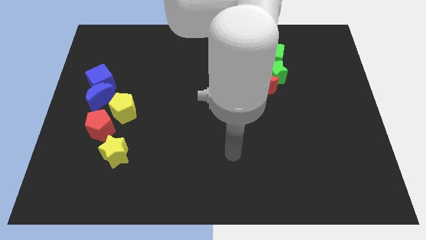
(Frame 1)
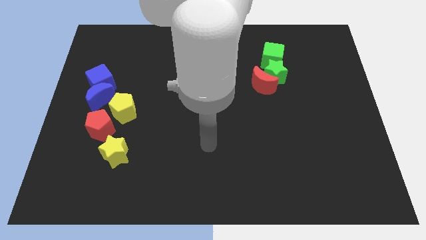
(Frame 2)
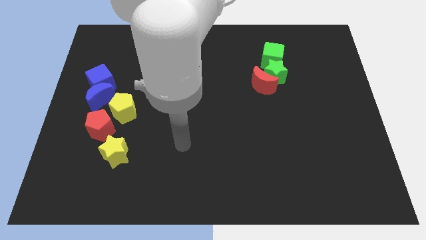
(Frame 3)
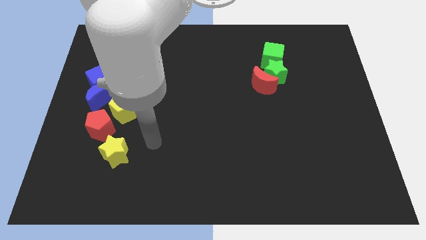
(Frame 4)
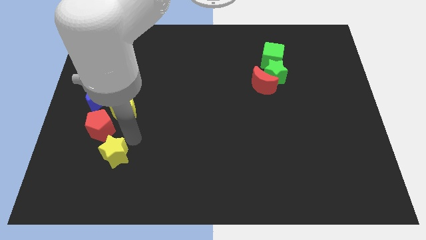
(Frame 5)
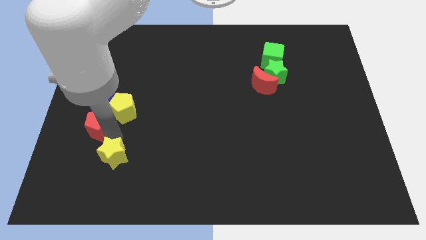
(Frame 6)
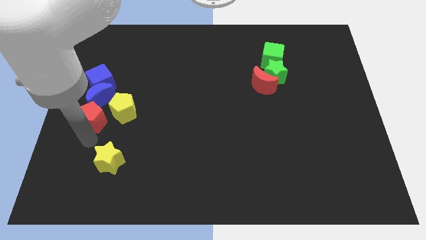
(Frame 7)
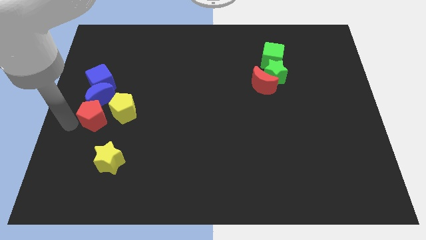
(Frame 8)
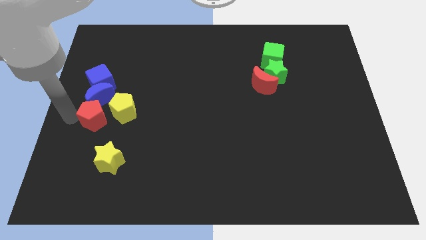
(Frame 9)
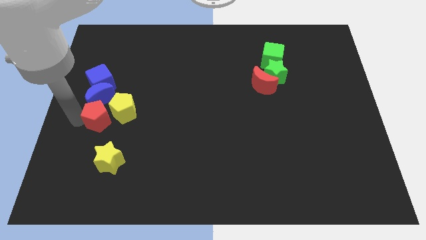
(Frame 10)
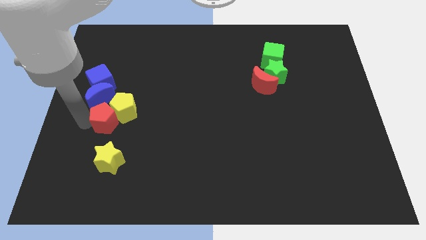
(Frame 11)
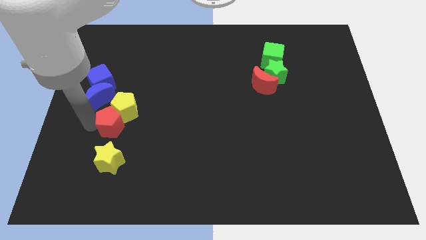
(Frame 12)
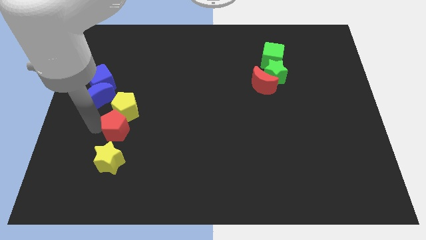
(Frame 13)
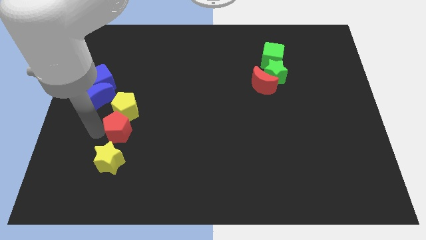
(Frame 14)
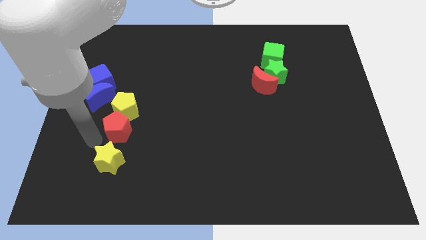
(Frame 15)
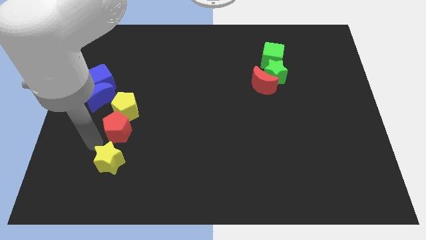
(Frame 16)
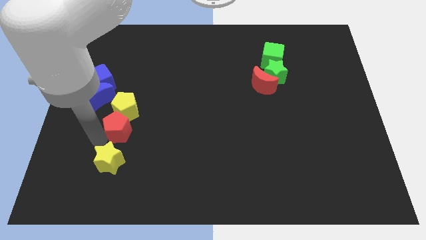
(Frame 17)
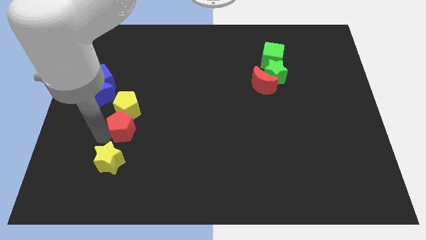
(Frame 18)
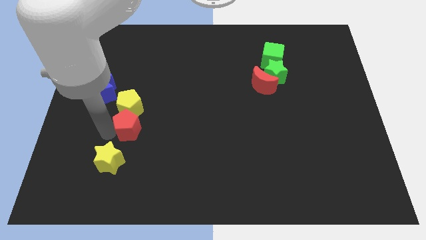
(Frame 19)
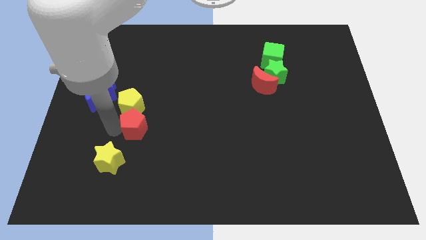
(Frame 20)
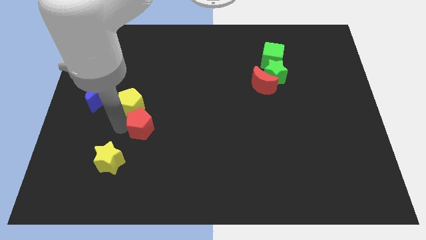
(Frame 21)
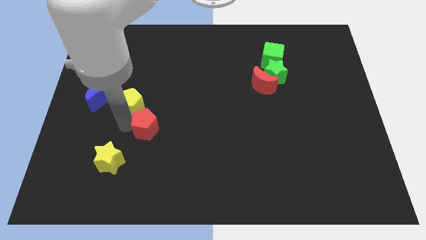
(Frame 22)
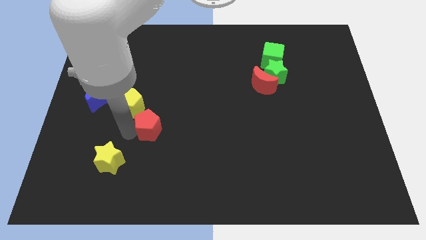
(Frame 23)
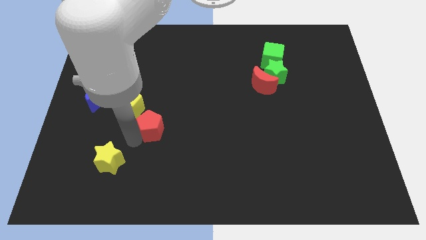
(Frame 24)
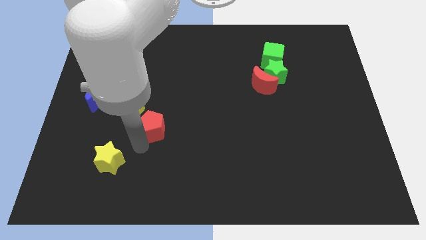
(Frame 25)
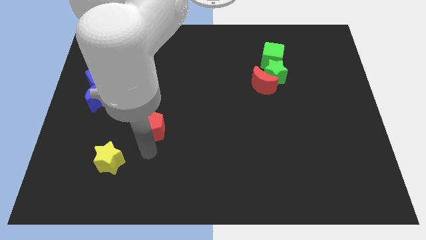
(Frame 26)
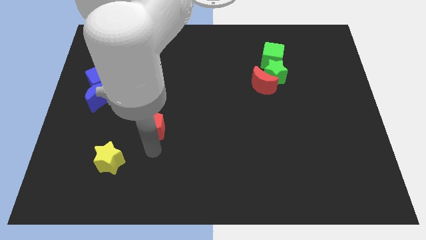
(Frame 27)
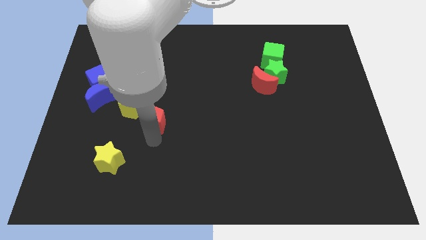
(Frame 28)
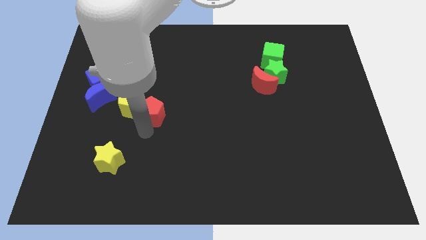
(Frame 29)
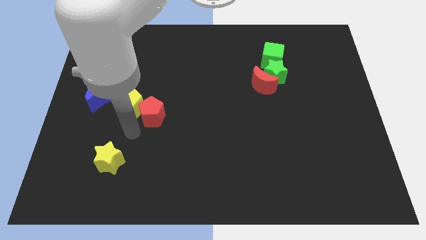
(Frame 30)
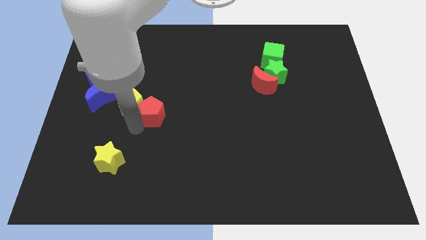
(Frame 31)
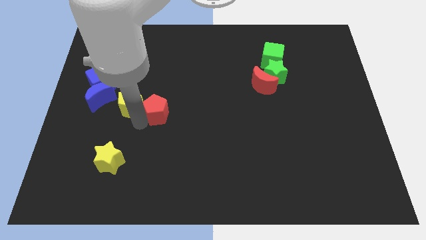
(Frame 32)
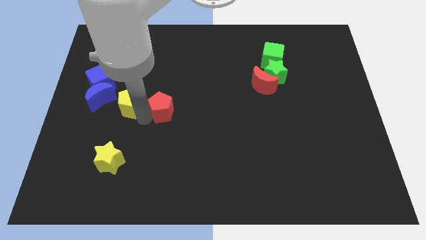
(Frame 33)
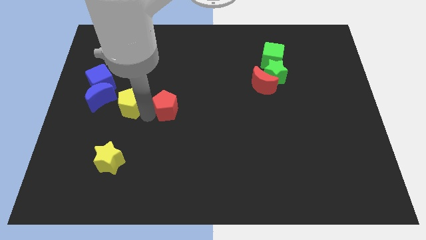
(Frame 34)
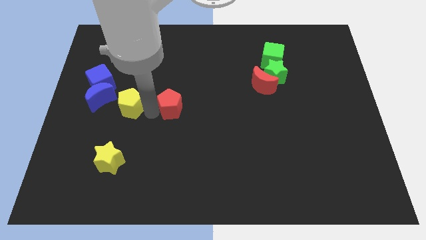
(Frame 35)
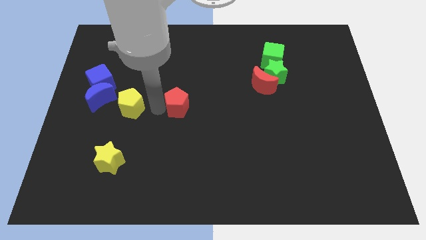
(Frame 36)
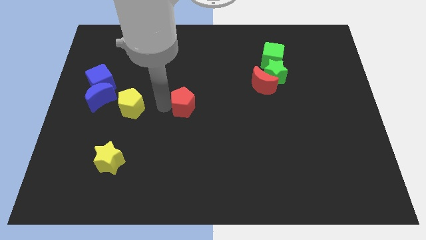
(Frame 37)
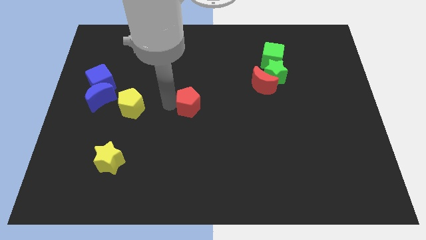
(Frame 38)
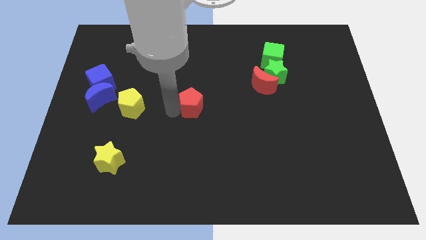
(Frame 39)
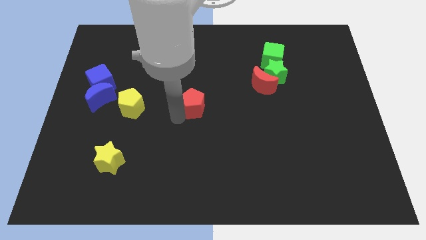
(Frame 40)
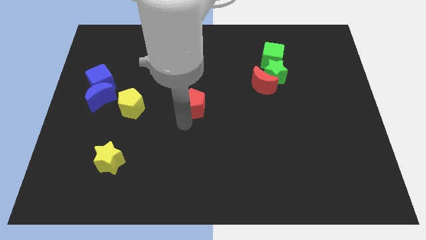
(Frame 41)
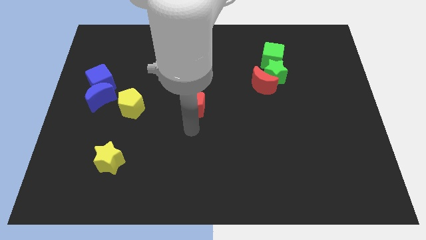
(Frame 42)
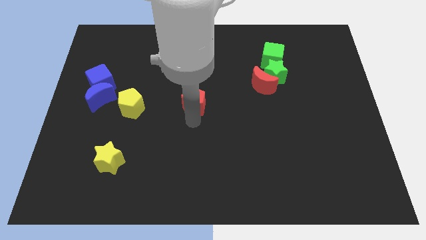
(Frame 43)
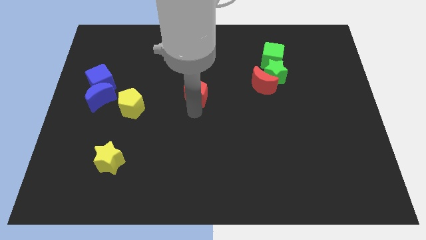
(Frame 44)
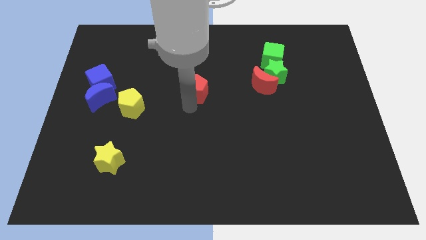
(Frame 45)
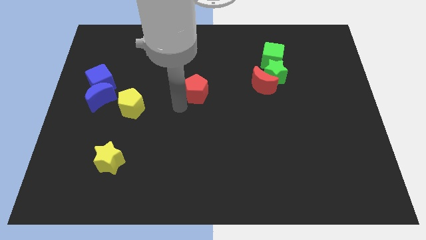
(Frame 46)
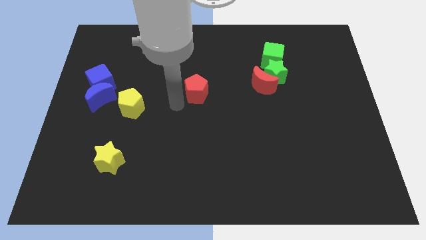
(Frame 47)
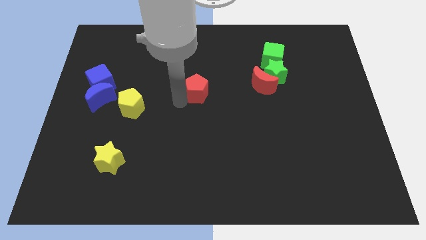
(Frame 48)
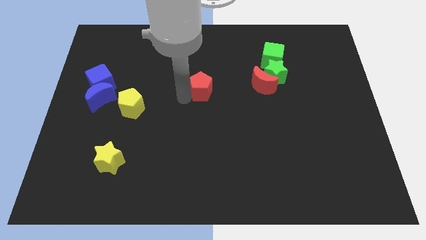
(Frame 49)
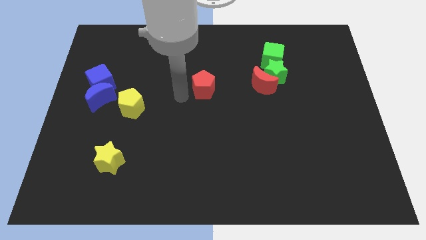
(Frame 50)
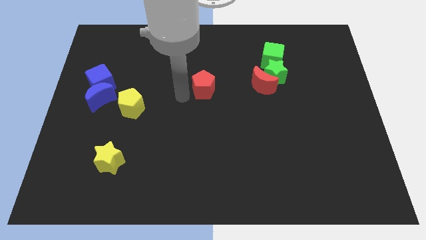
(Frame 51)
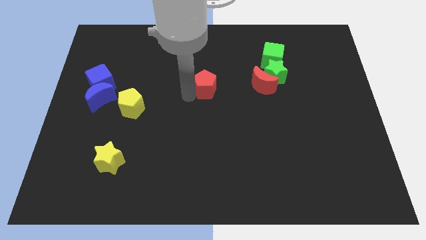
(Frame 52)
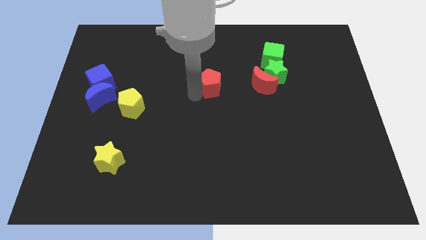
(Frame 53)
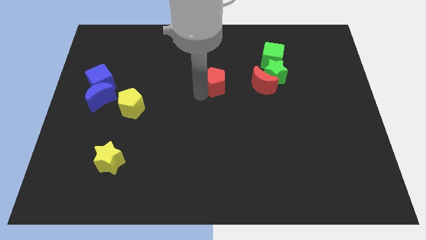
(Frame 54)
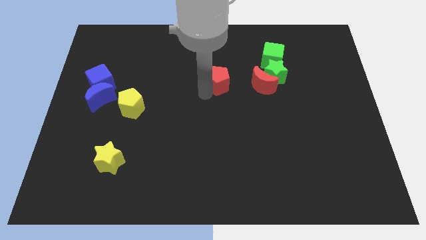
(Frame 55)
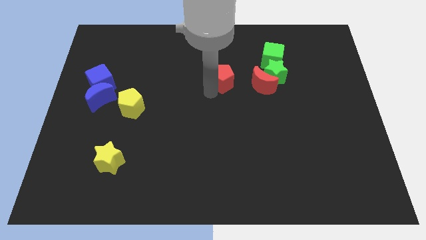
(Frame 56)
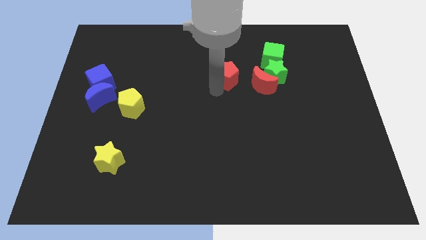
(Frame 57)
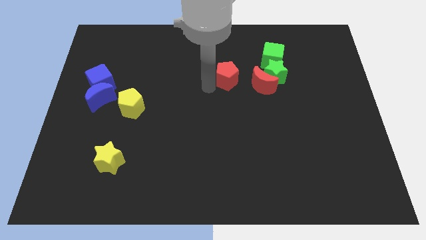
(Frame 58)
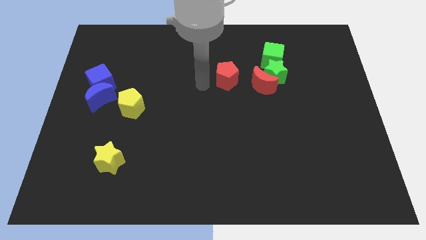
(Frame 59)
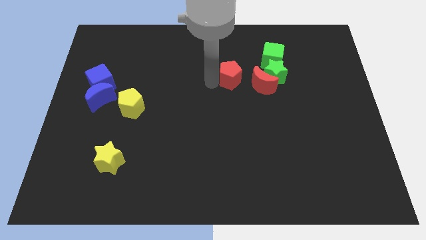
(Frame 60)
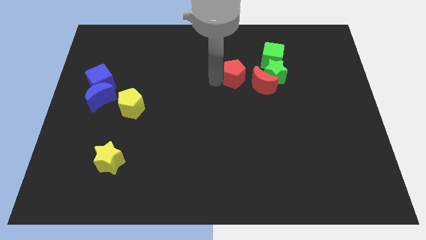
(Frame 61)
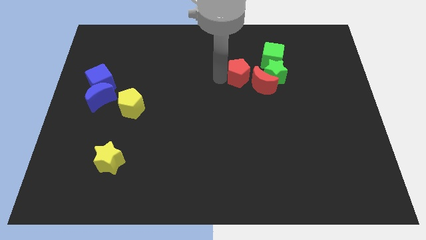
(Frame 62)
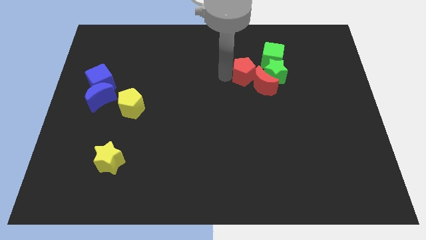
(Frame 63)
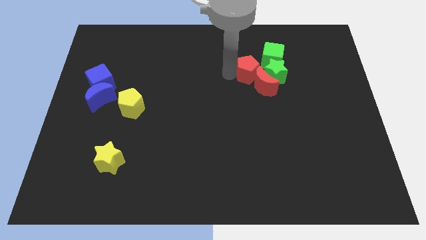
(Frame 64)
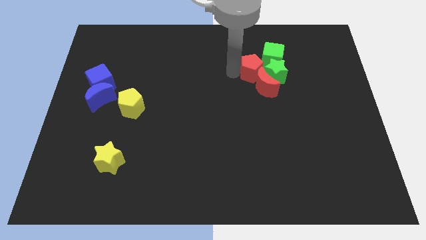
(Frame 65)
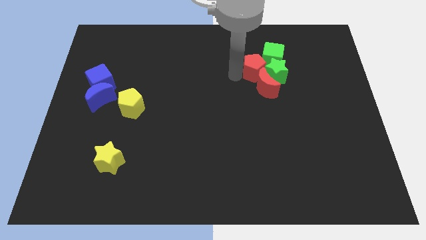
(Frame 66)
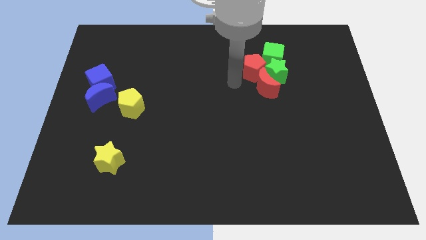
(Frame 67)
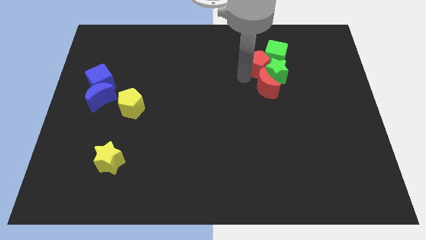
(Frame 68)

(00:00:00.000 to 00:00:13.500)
slide the red pentagon towards the green cube
